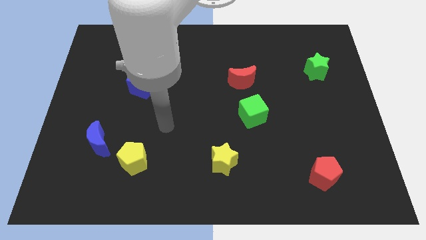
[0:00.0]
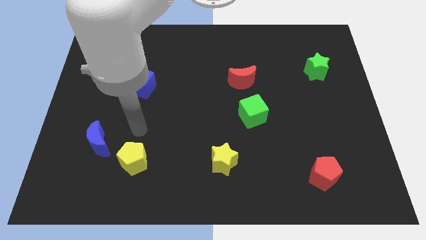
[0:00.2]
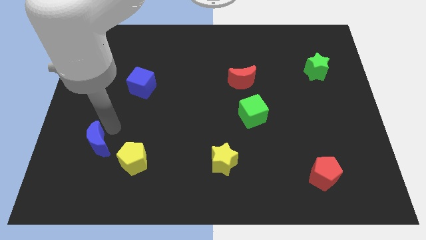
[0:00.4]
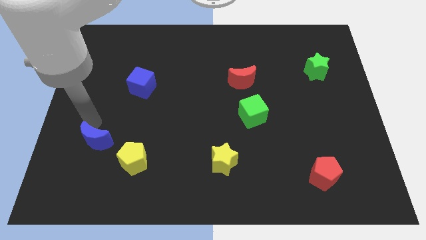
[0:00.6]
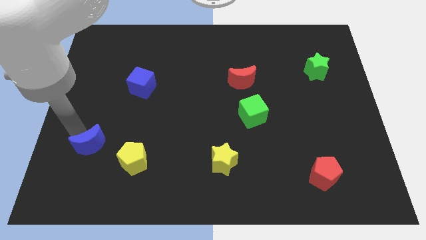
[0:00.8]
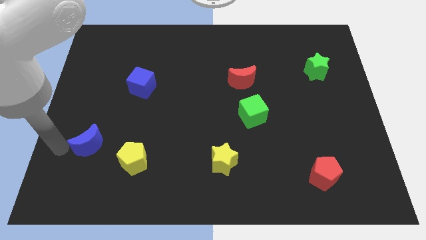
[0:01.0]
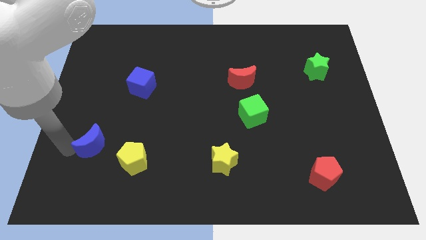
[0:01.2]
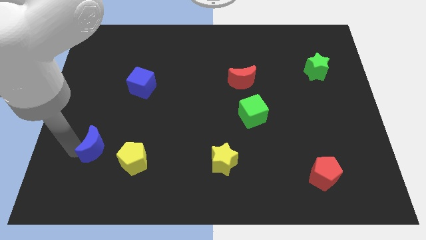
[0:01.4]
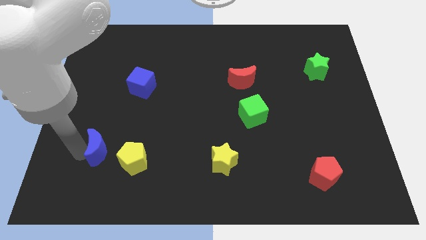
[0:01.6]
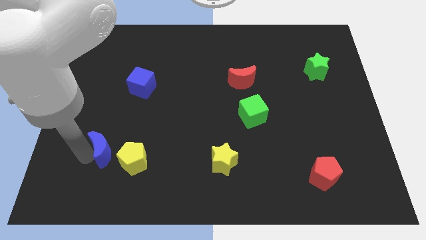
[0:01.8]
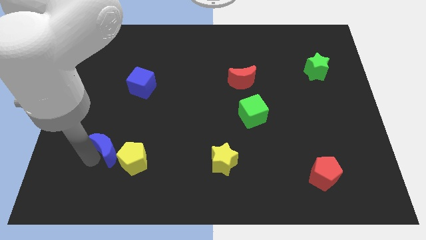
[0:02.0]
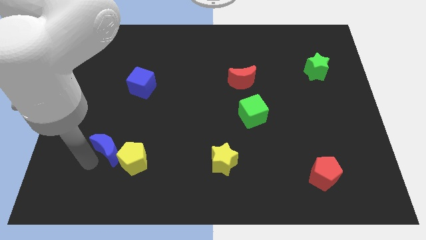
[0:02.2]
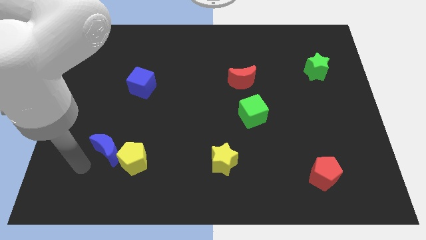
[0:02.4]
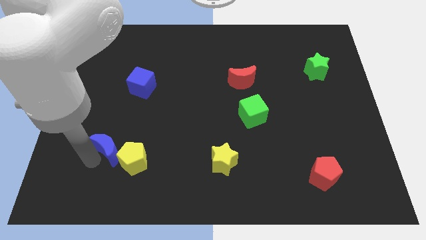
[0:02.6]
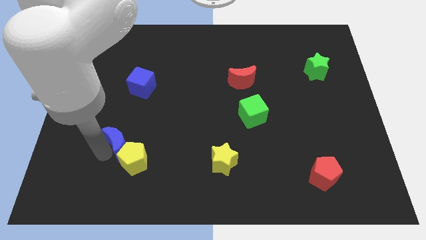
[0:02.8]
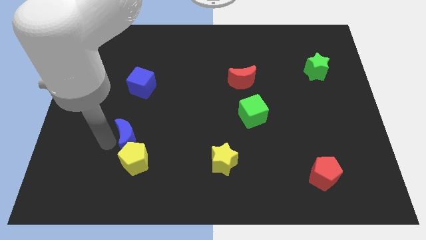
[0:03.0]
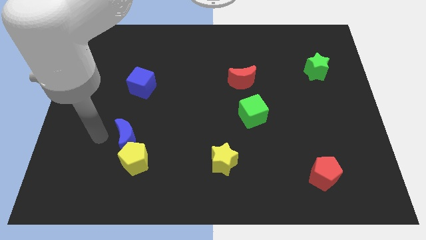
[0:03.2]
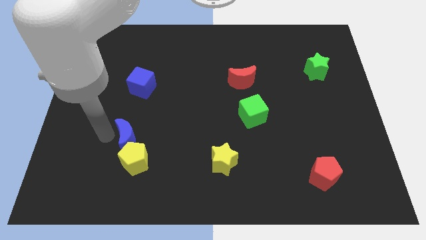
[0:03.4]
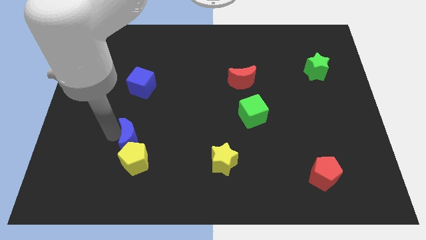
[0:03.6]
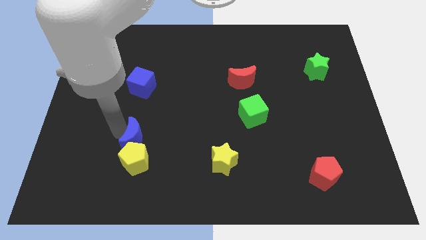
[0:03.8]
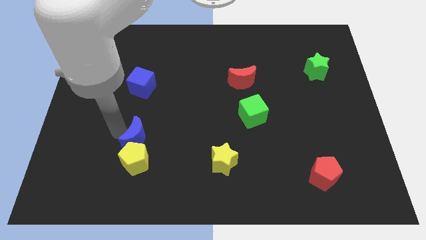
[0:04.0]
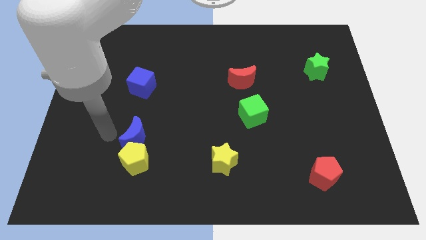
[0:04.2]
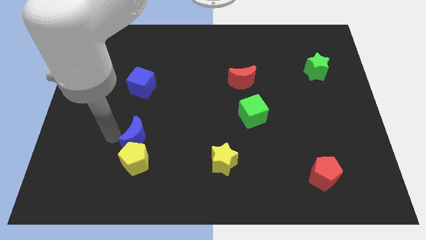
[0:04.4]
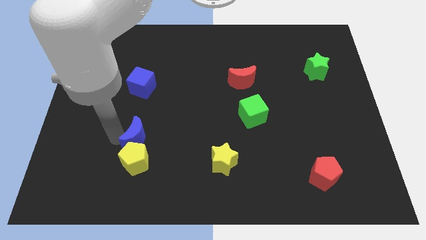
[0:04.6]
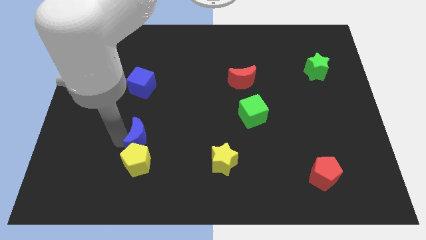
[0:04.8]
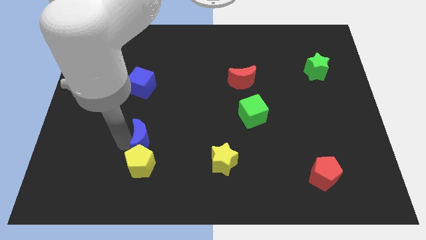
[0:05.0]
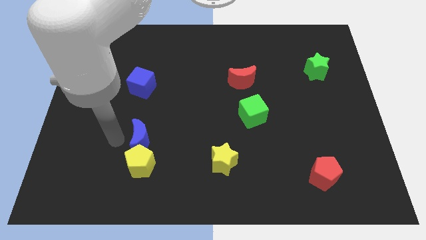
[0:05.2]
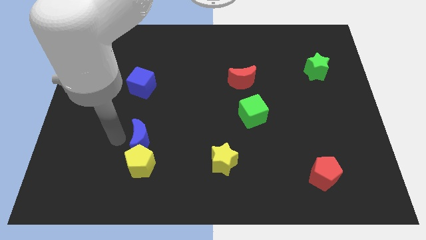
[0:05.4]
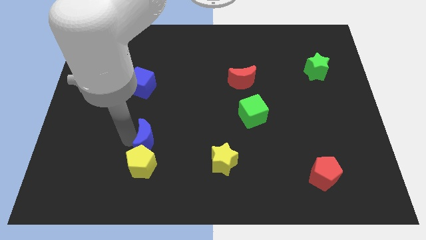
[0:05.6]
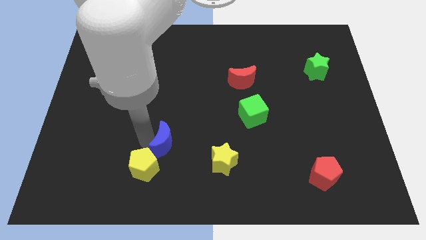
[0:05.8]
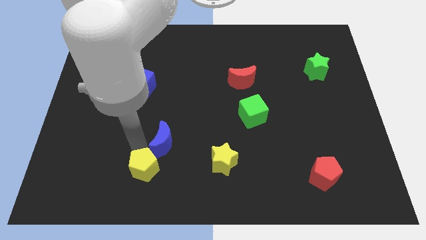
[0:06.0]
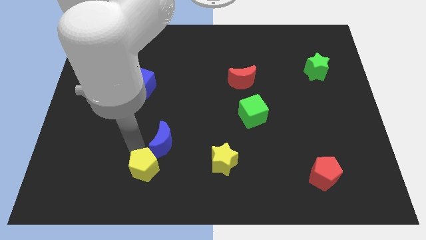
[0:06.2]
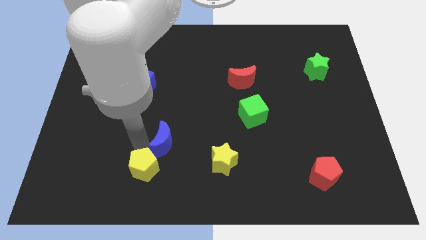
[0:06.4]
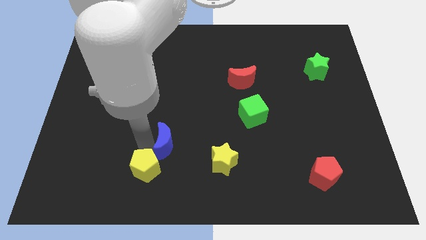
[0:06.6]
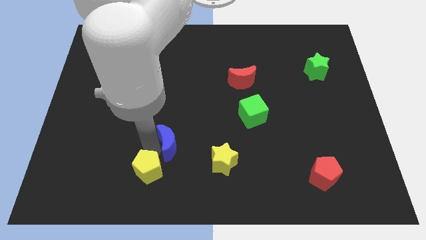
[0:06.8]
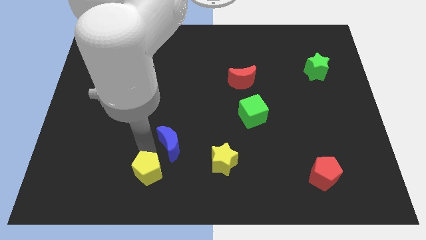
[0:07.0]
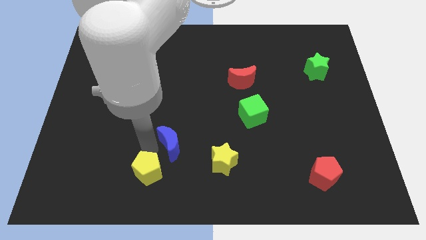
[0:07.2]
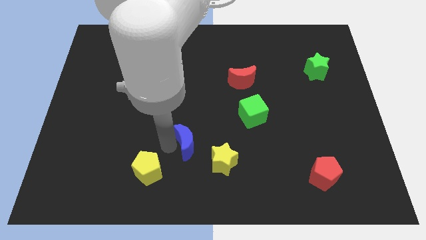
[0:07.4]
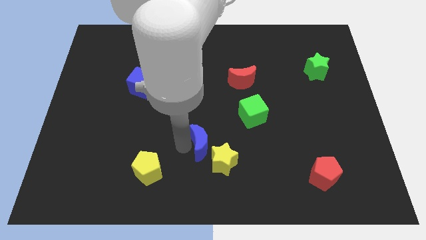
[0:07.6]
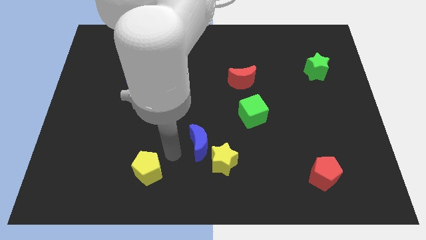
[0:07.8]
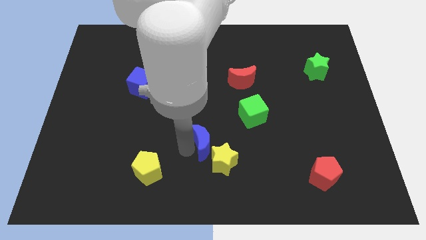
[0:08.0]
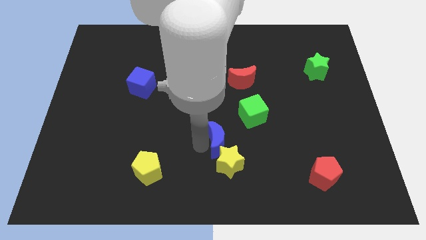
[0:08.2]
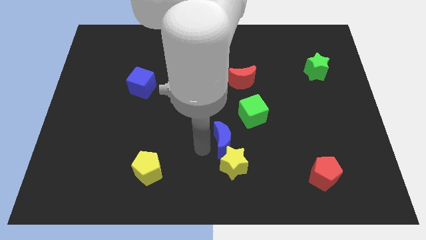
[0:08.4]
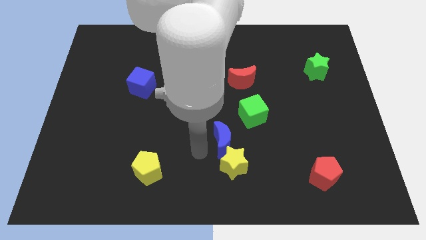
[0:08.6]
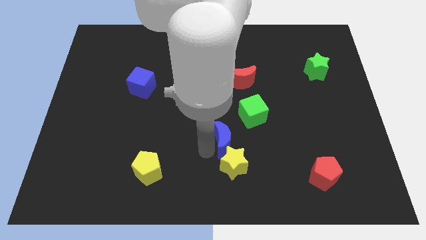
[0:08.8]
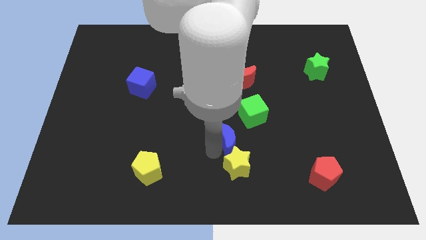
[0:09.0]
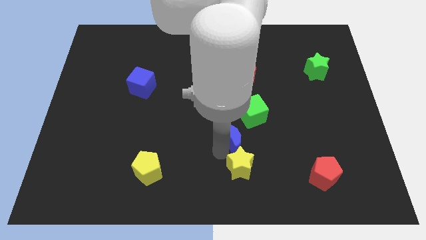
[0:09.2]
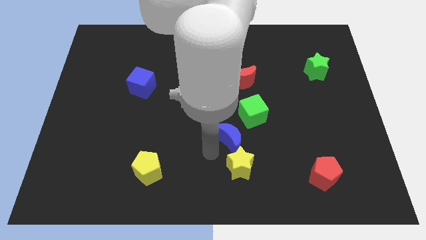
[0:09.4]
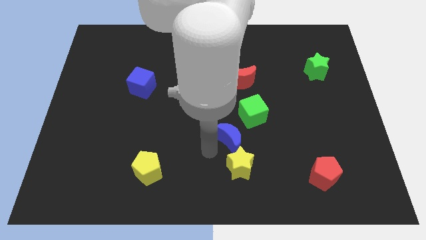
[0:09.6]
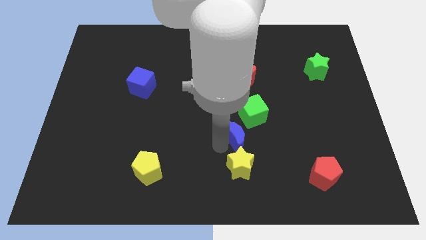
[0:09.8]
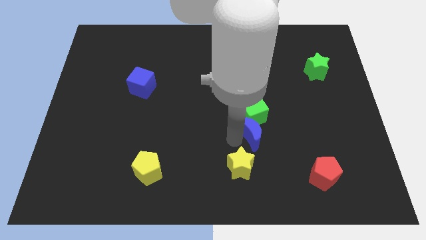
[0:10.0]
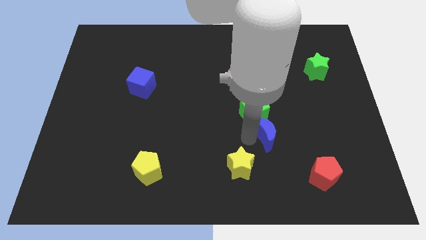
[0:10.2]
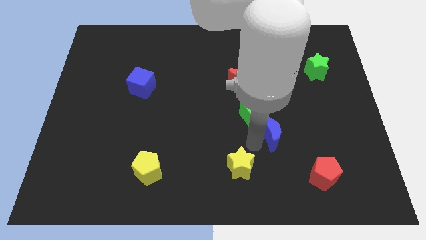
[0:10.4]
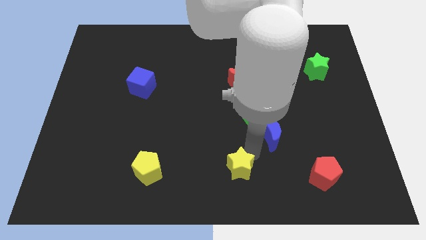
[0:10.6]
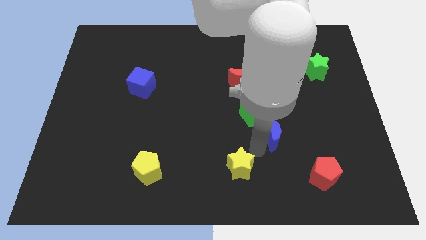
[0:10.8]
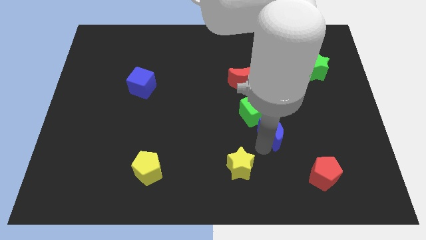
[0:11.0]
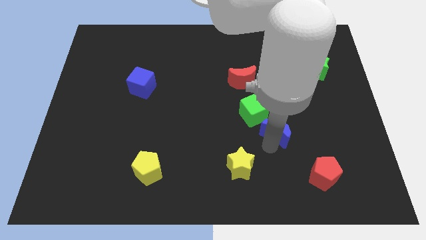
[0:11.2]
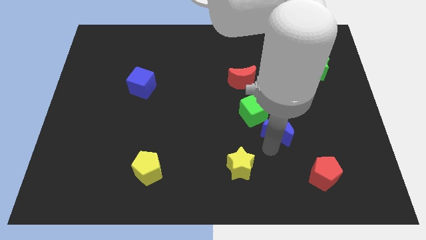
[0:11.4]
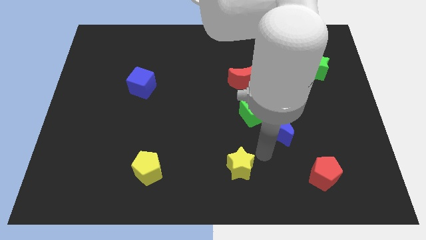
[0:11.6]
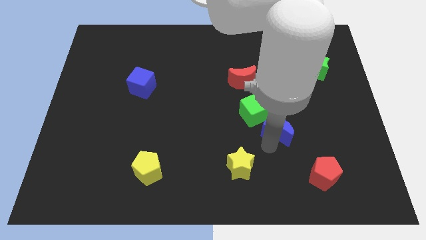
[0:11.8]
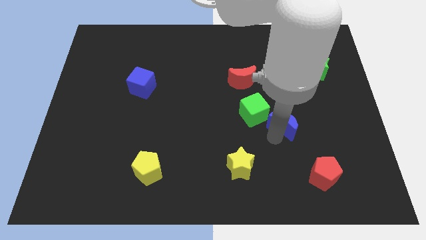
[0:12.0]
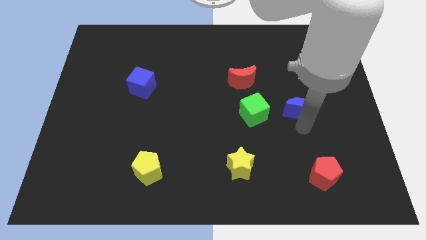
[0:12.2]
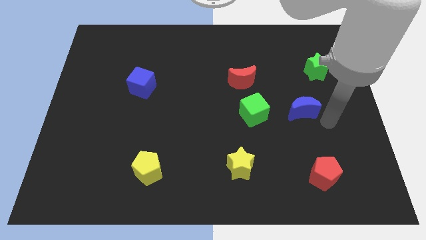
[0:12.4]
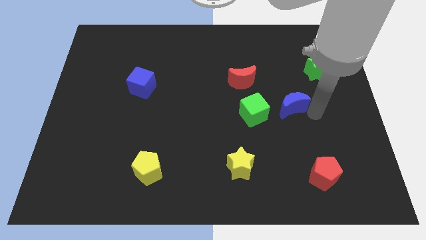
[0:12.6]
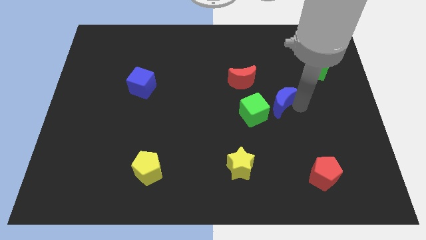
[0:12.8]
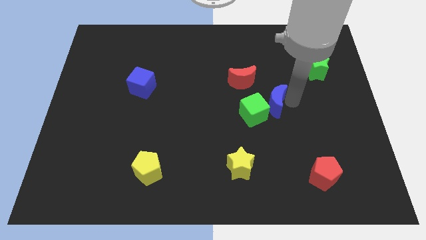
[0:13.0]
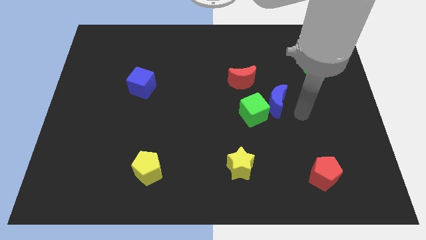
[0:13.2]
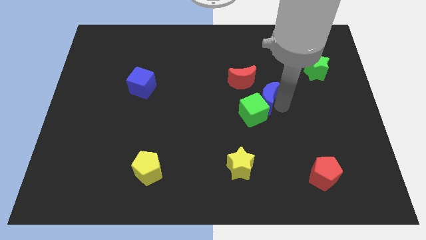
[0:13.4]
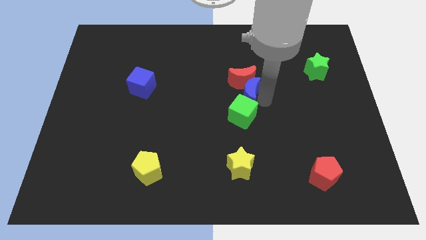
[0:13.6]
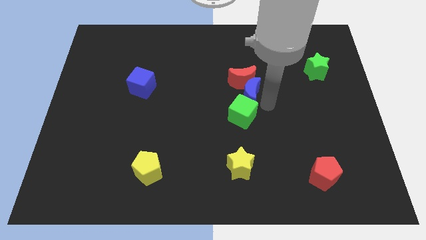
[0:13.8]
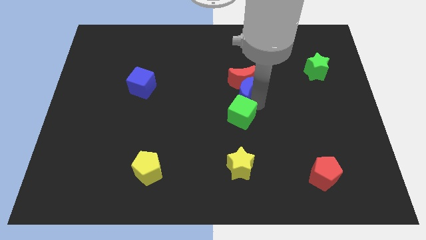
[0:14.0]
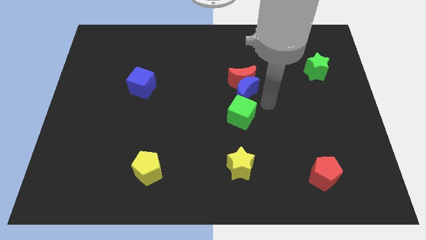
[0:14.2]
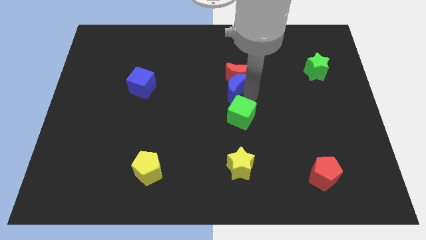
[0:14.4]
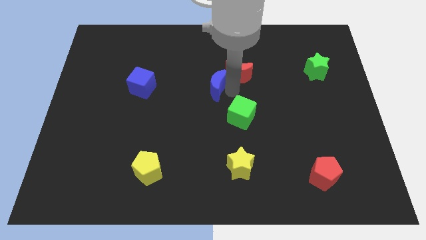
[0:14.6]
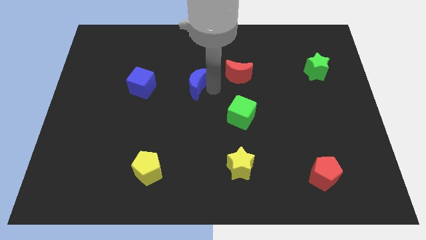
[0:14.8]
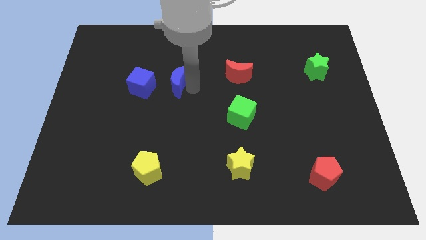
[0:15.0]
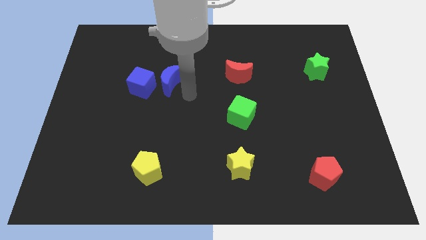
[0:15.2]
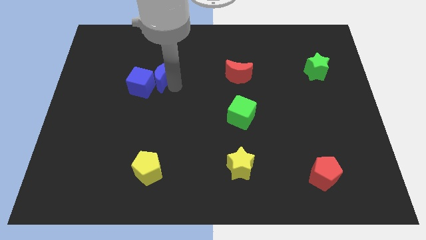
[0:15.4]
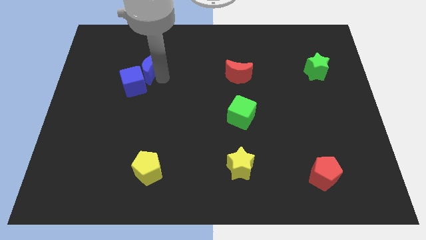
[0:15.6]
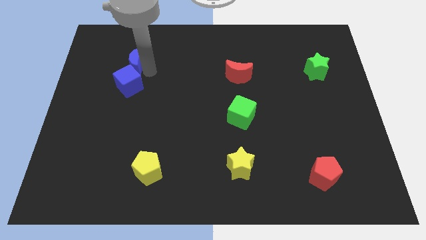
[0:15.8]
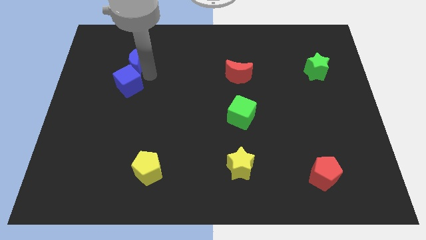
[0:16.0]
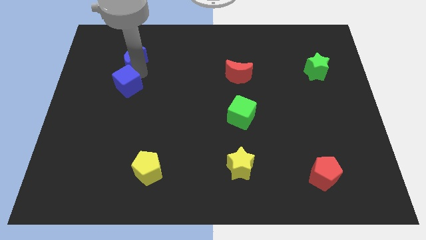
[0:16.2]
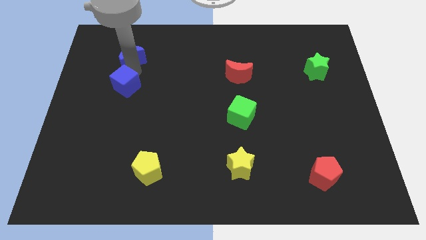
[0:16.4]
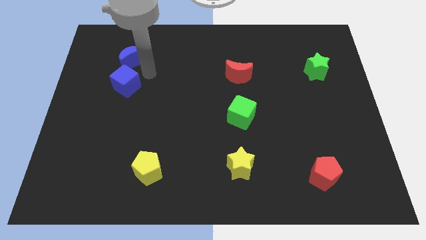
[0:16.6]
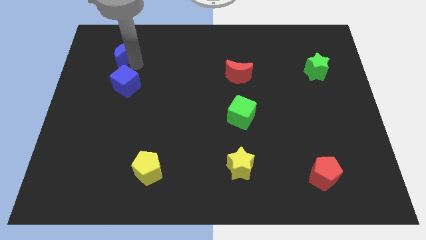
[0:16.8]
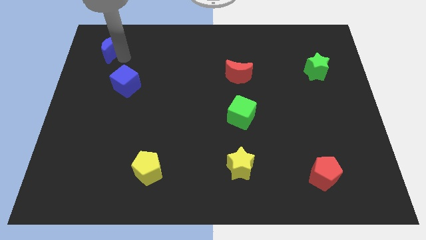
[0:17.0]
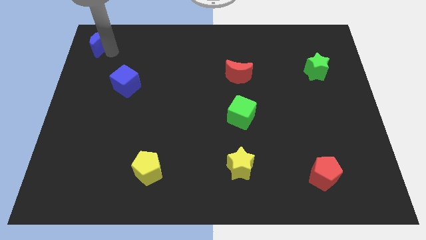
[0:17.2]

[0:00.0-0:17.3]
slide the blue moon to the upper left corner
